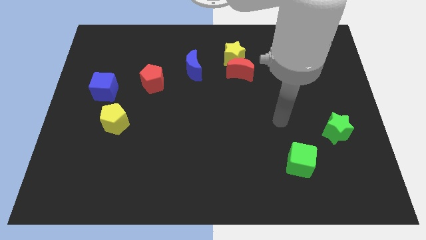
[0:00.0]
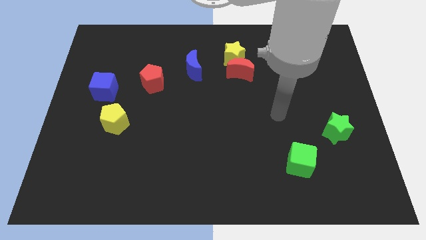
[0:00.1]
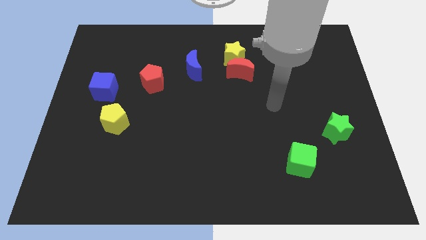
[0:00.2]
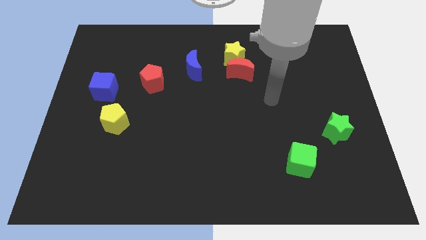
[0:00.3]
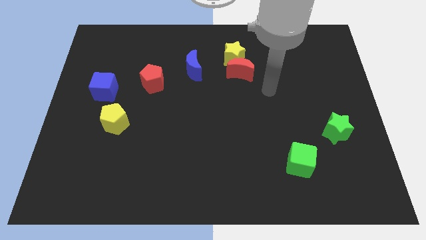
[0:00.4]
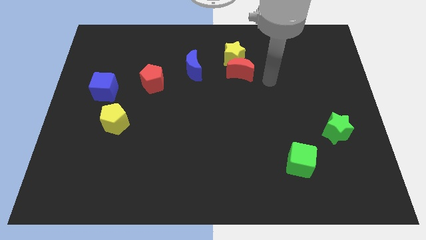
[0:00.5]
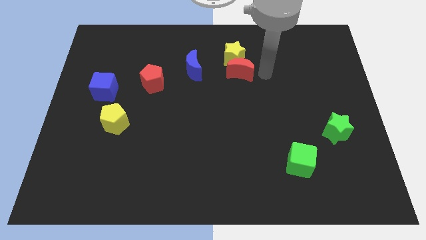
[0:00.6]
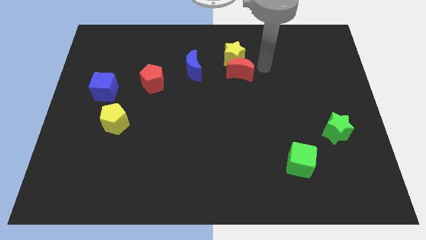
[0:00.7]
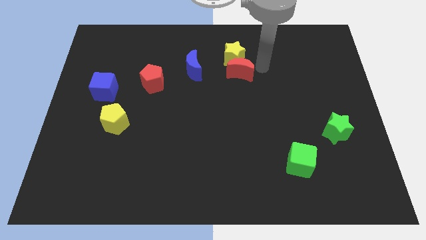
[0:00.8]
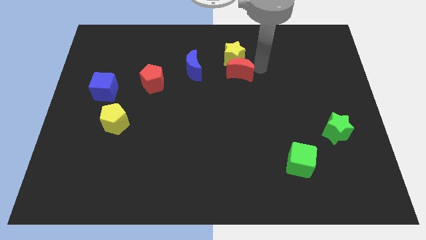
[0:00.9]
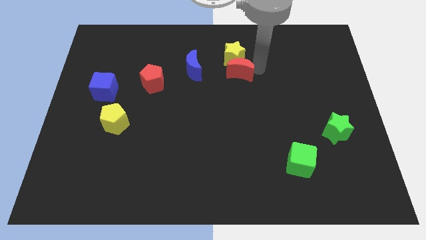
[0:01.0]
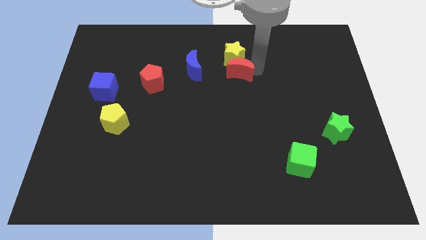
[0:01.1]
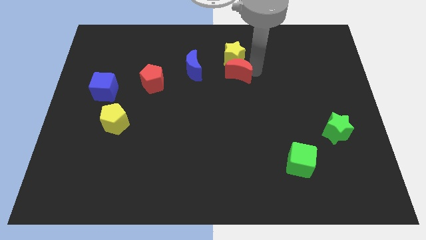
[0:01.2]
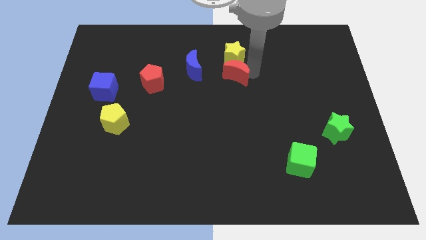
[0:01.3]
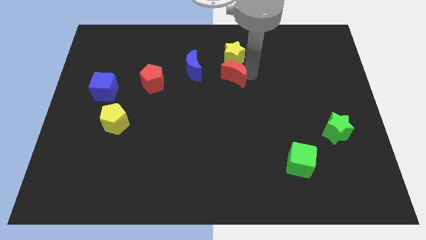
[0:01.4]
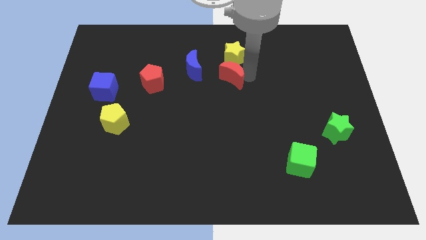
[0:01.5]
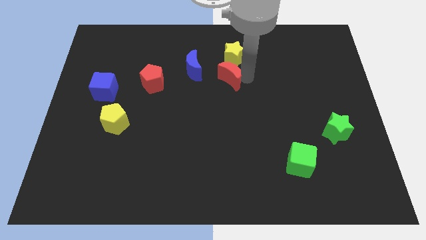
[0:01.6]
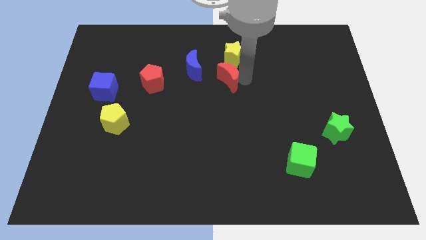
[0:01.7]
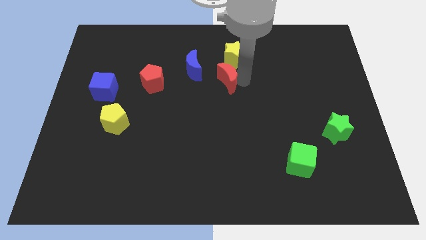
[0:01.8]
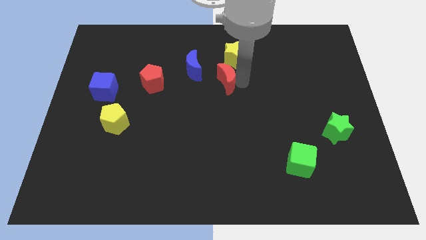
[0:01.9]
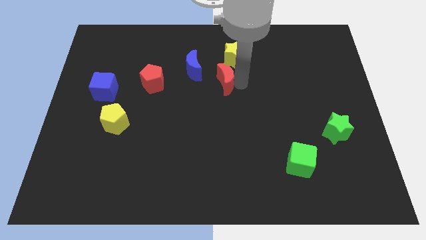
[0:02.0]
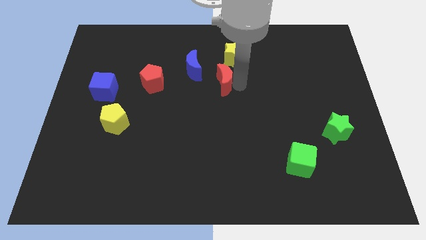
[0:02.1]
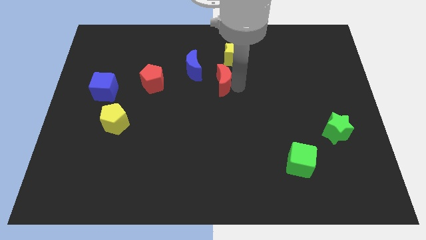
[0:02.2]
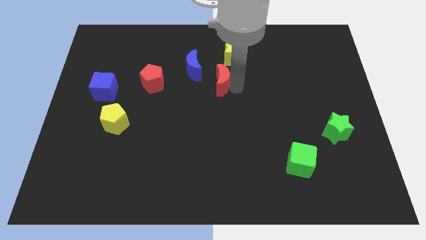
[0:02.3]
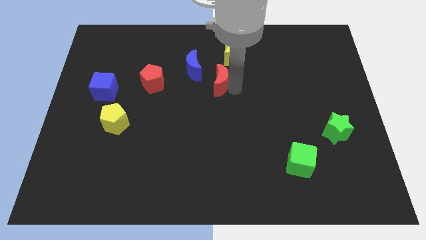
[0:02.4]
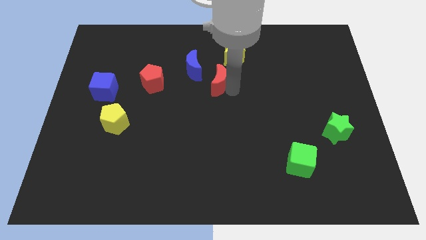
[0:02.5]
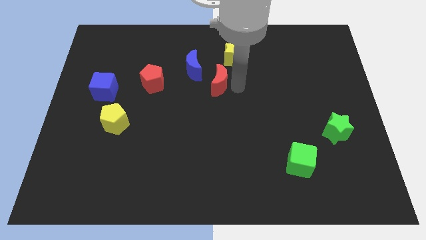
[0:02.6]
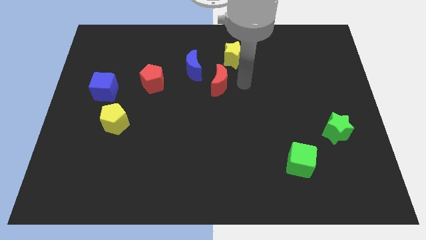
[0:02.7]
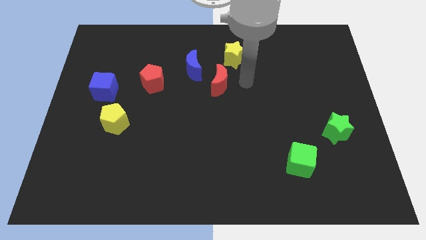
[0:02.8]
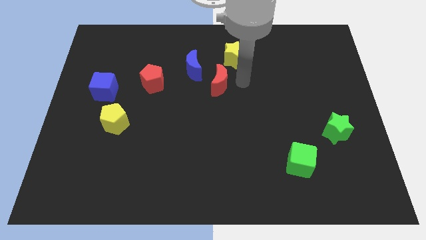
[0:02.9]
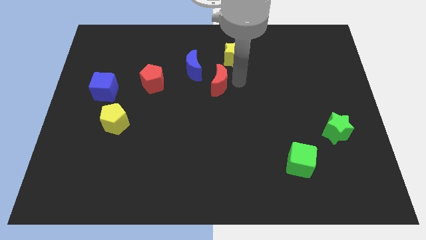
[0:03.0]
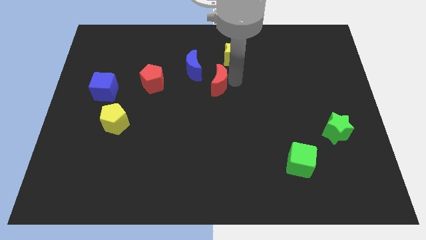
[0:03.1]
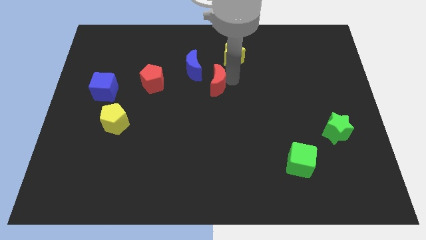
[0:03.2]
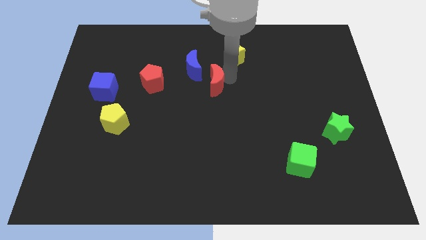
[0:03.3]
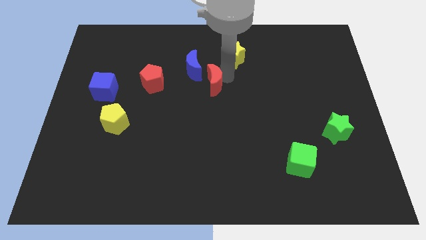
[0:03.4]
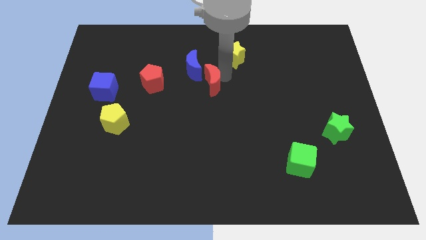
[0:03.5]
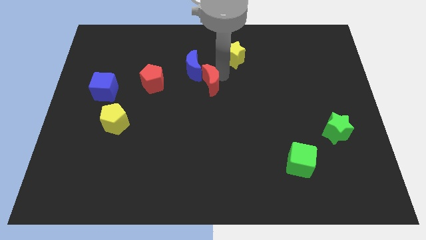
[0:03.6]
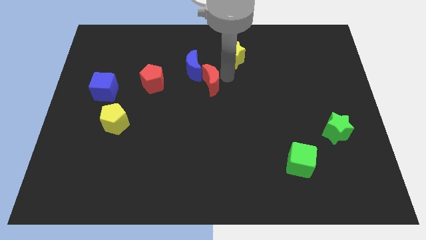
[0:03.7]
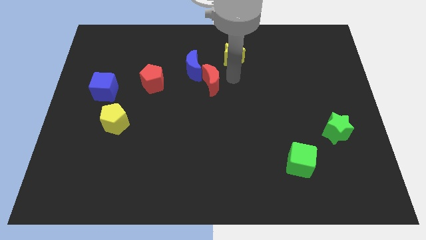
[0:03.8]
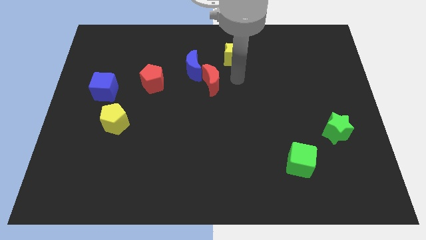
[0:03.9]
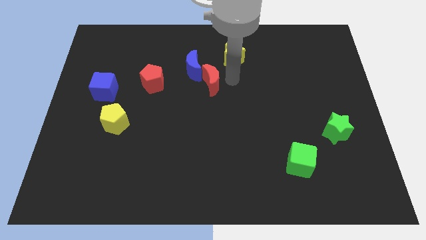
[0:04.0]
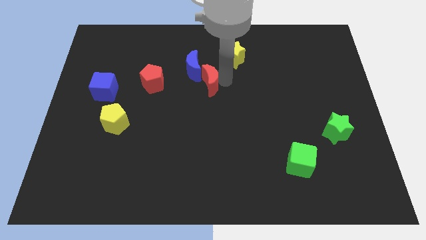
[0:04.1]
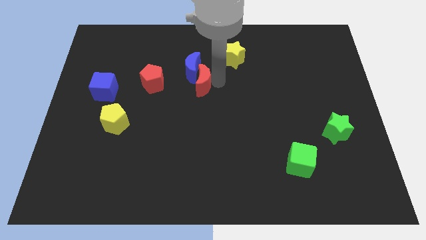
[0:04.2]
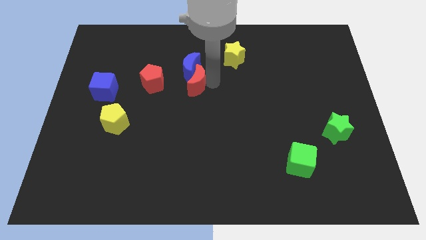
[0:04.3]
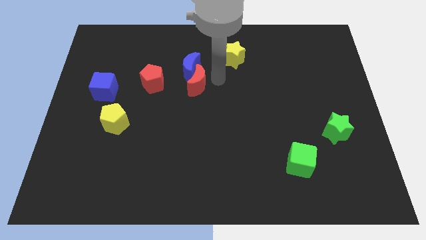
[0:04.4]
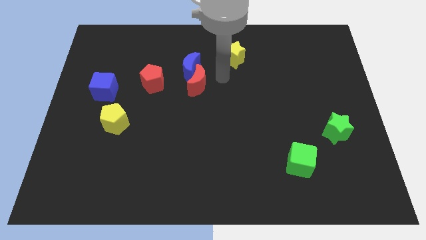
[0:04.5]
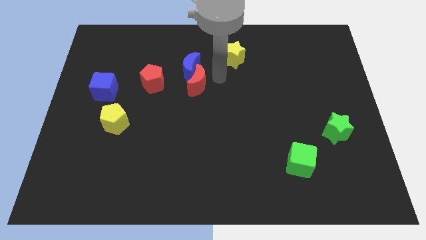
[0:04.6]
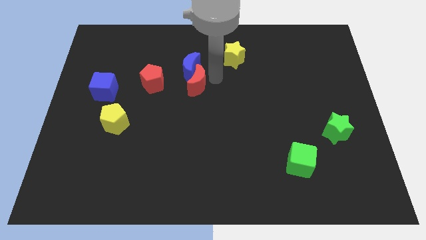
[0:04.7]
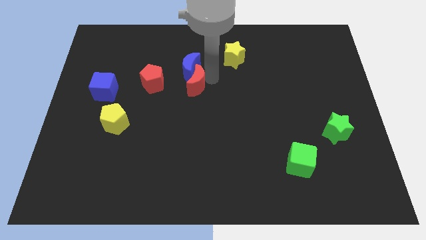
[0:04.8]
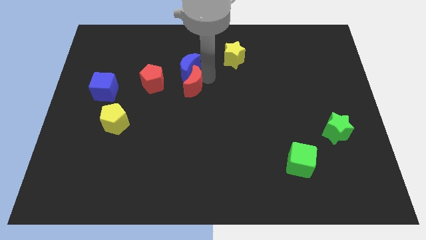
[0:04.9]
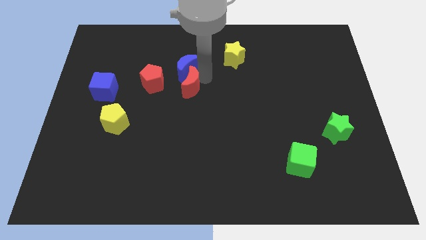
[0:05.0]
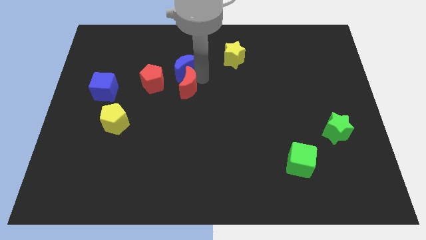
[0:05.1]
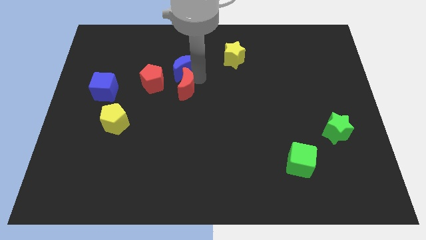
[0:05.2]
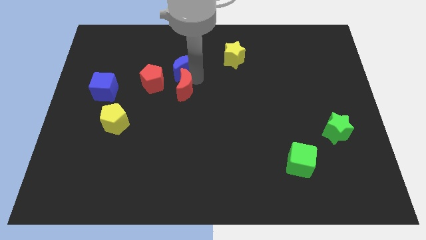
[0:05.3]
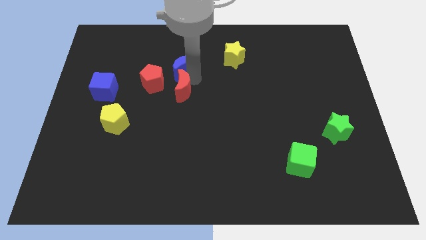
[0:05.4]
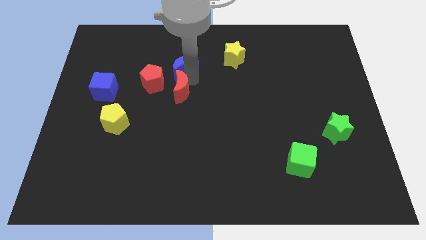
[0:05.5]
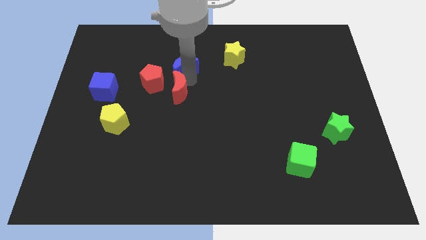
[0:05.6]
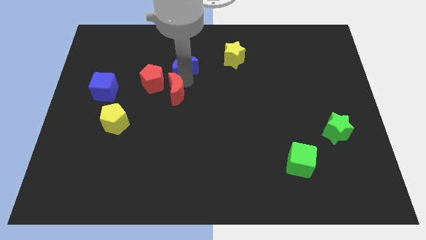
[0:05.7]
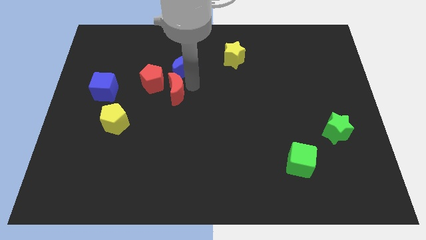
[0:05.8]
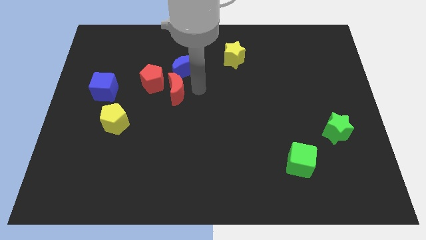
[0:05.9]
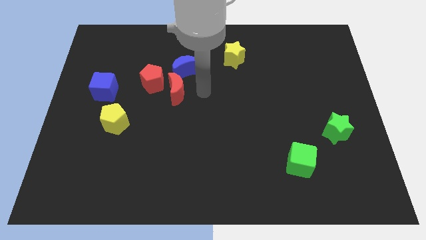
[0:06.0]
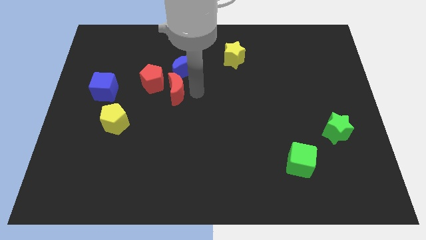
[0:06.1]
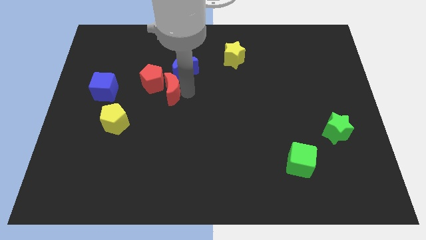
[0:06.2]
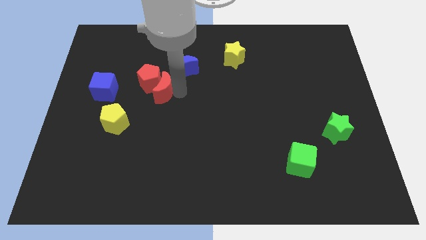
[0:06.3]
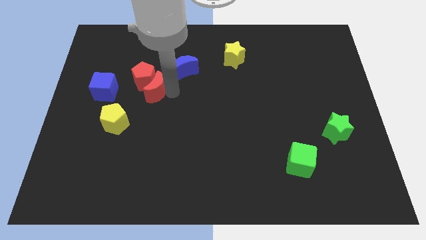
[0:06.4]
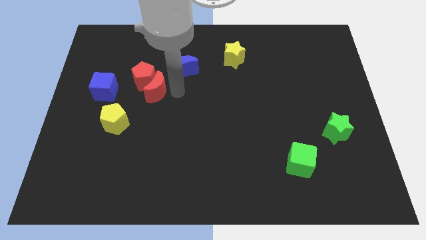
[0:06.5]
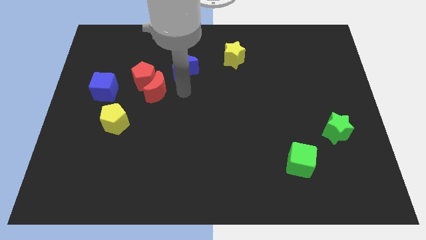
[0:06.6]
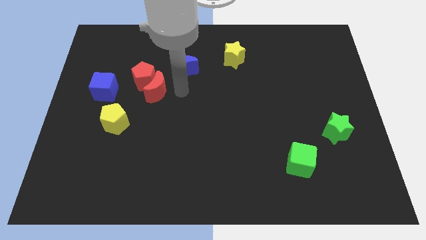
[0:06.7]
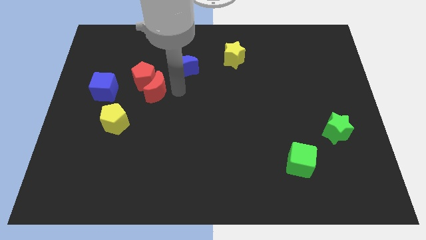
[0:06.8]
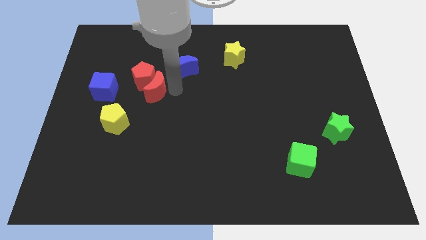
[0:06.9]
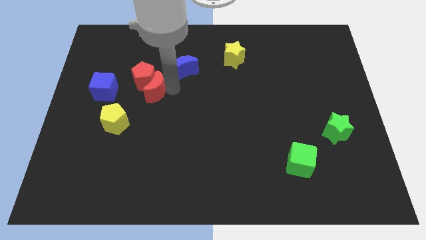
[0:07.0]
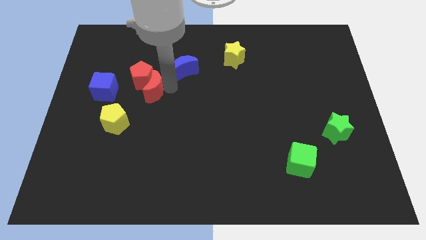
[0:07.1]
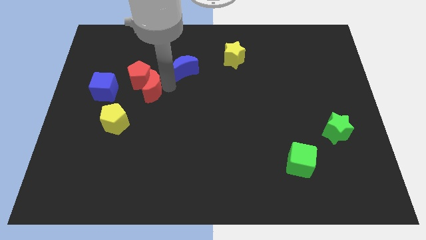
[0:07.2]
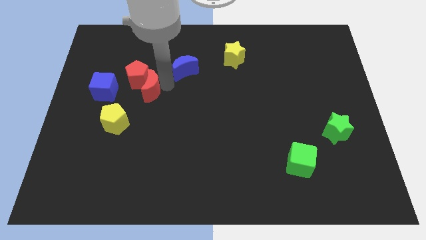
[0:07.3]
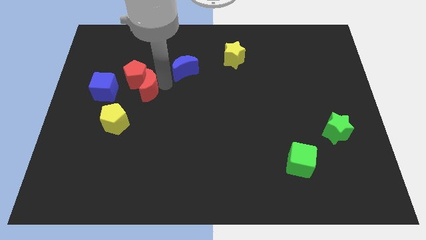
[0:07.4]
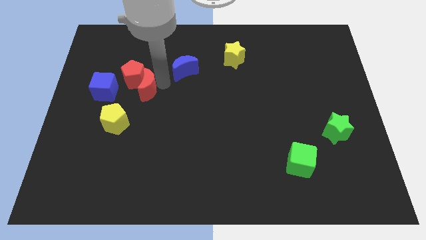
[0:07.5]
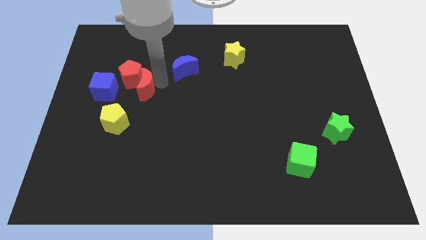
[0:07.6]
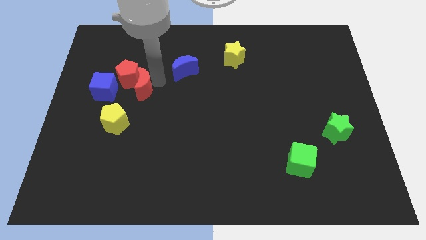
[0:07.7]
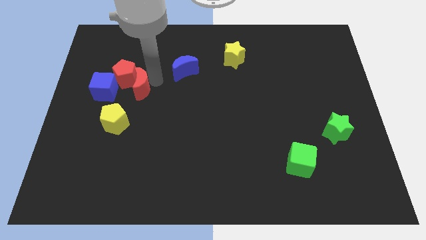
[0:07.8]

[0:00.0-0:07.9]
move the red moon to the top side of the yellow pentagon

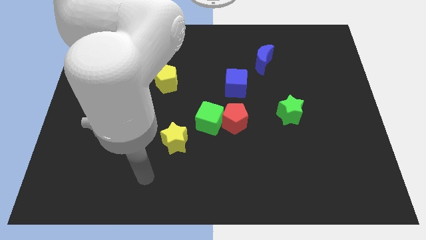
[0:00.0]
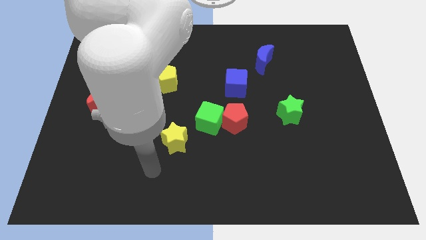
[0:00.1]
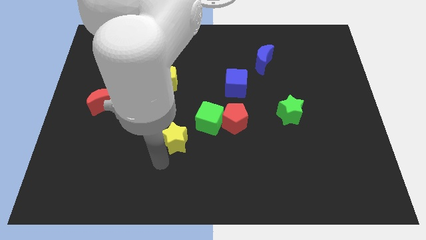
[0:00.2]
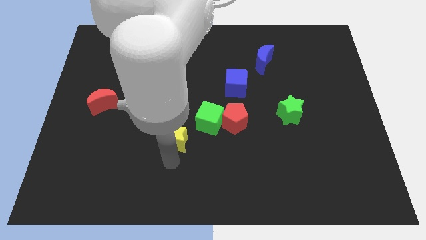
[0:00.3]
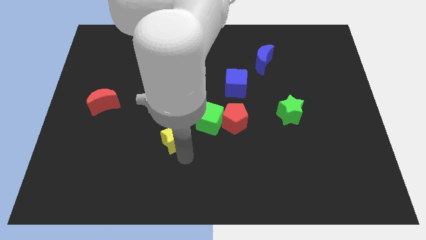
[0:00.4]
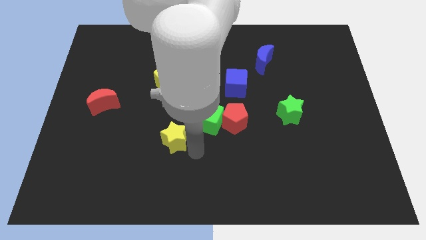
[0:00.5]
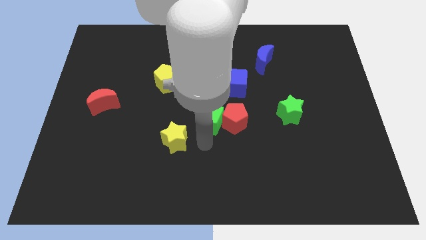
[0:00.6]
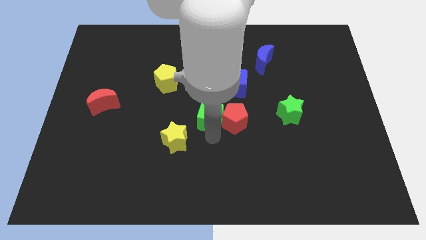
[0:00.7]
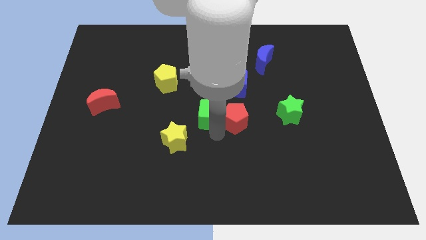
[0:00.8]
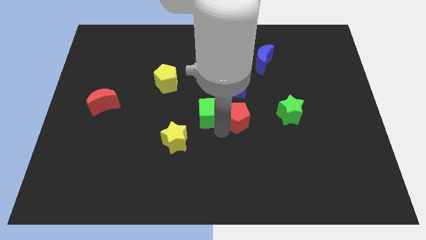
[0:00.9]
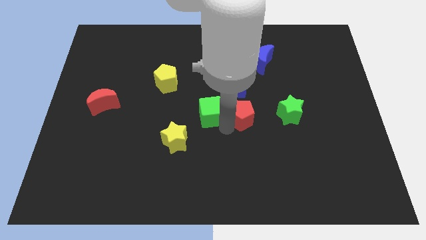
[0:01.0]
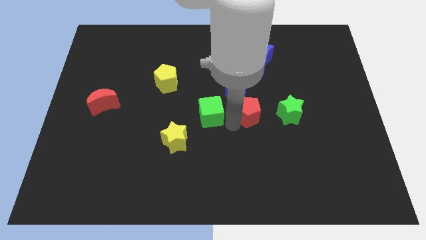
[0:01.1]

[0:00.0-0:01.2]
slide the red pentagon to the bottom right of the blue cube
